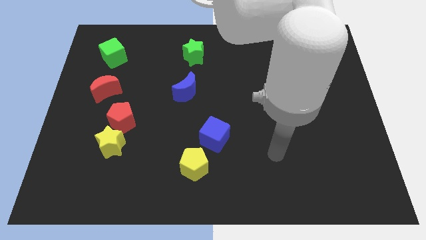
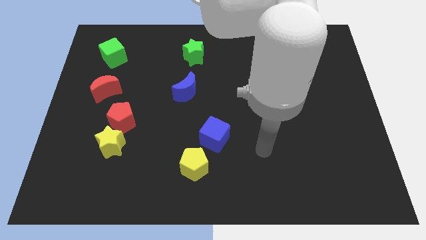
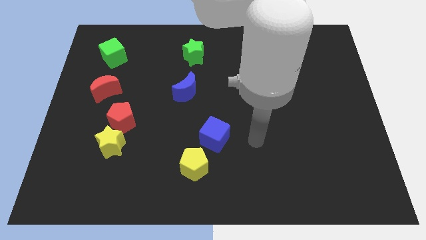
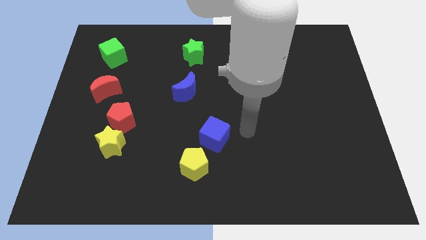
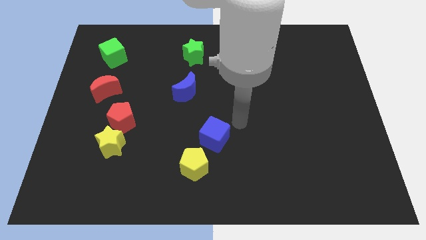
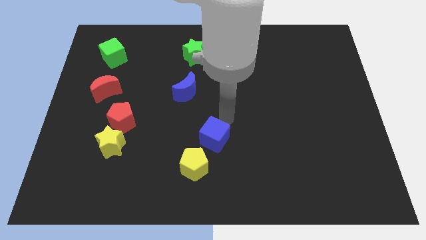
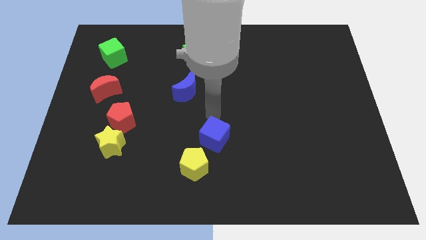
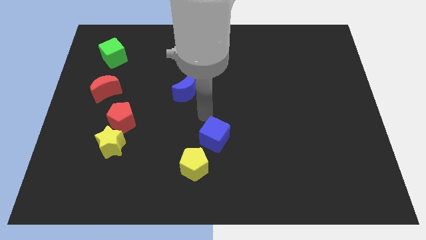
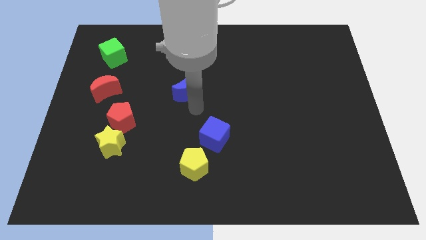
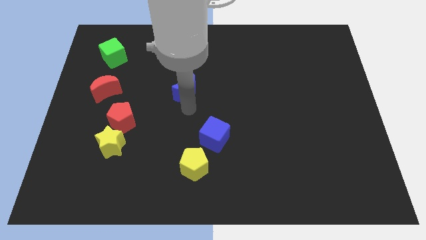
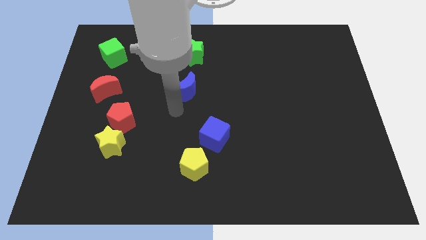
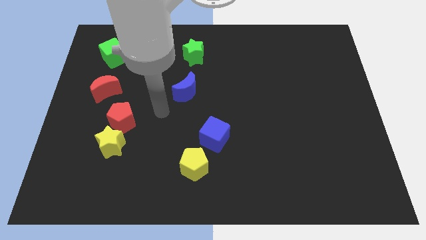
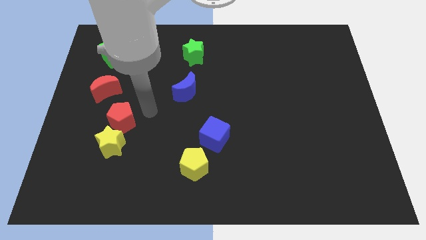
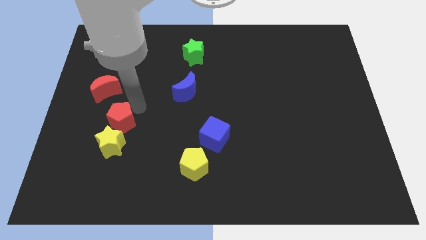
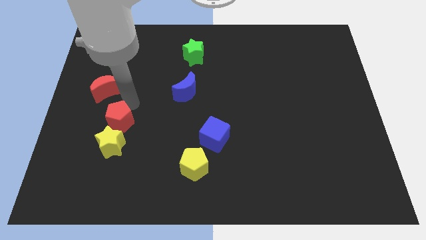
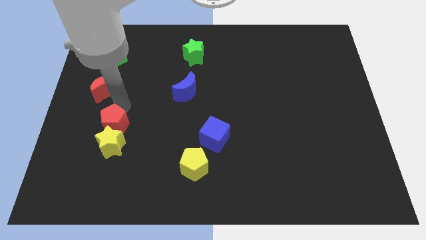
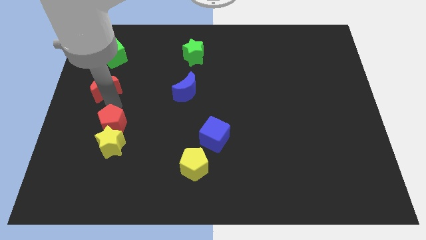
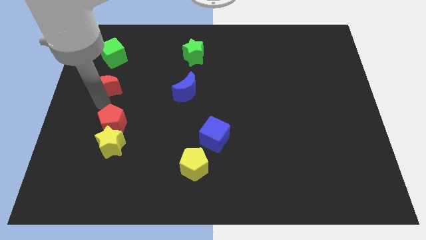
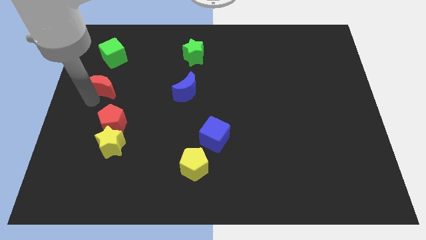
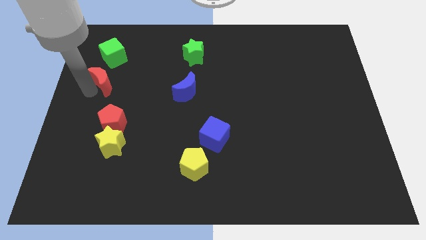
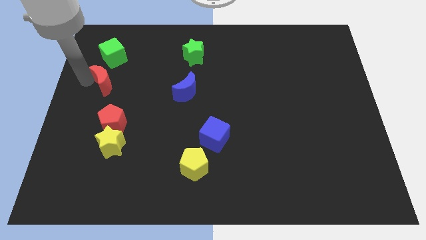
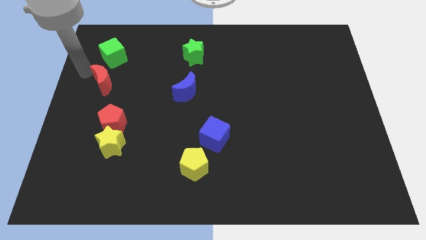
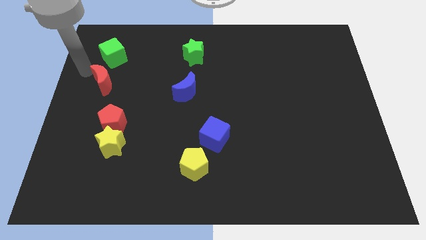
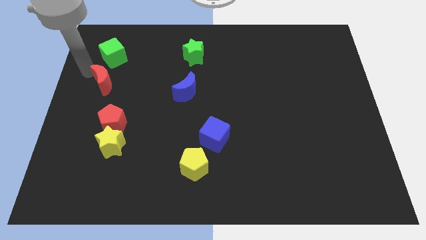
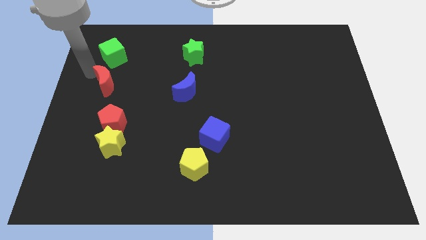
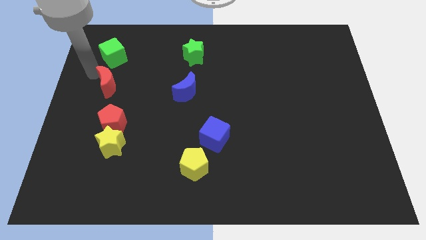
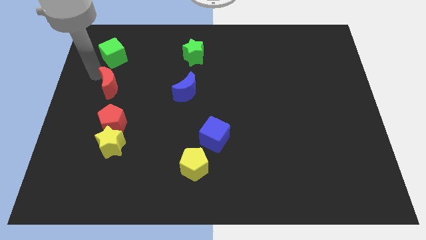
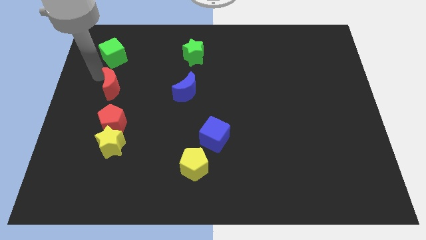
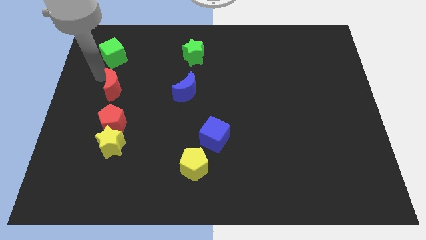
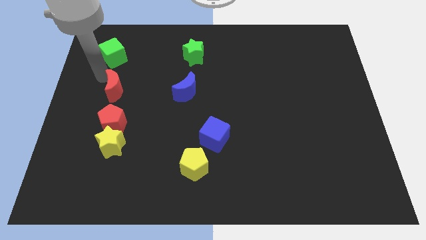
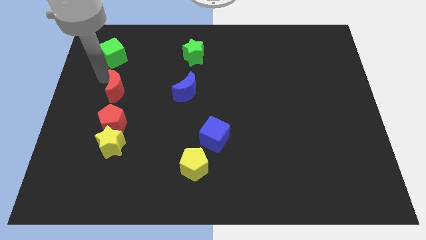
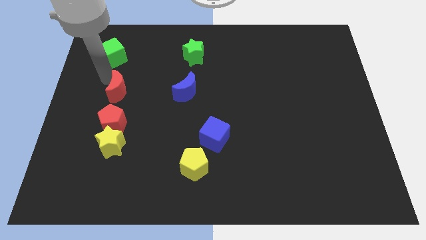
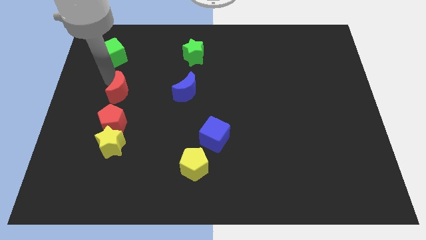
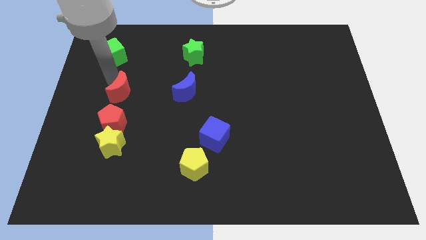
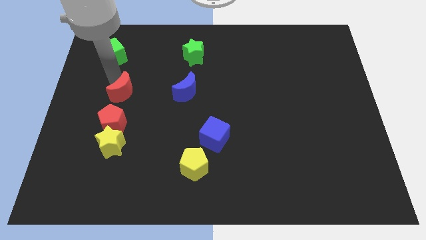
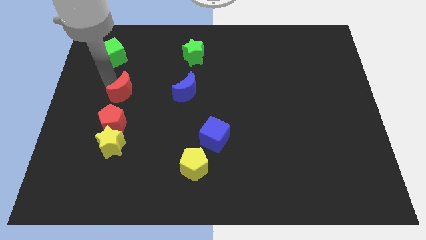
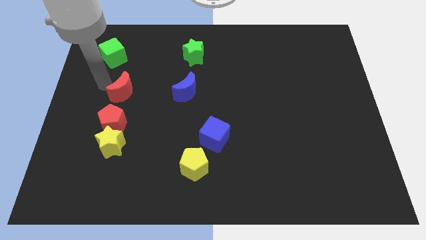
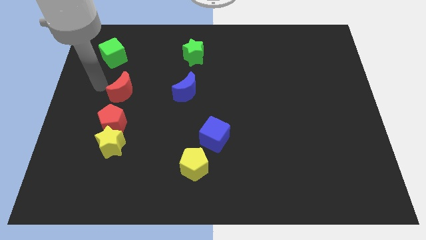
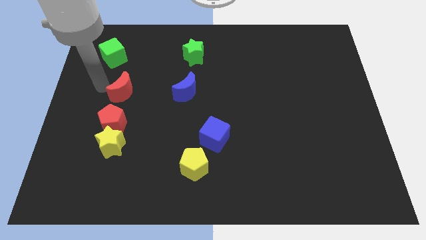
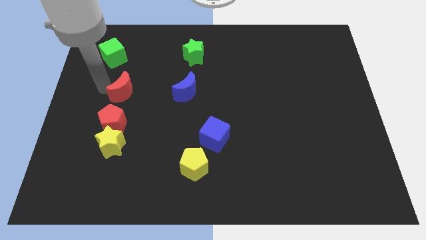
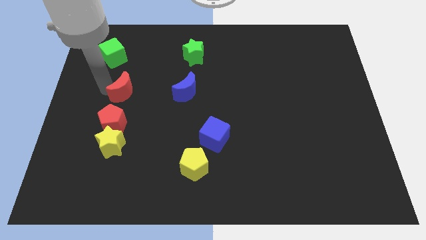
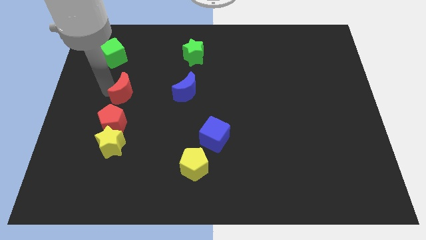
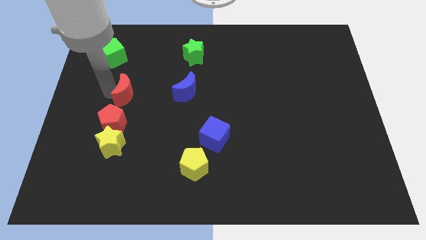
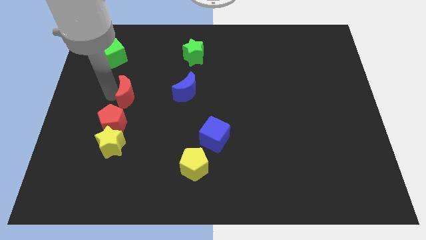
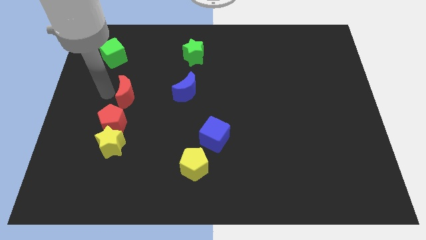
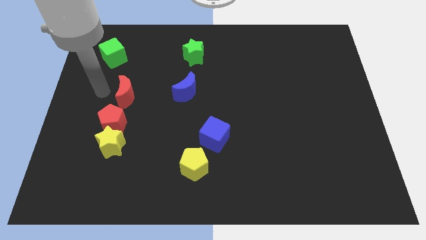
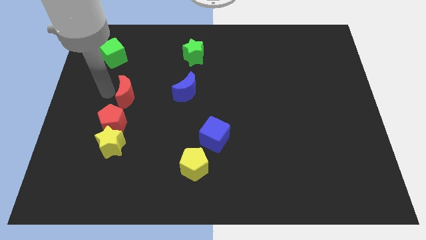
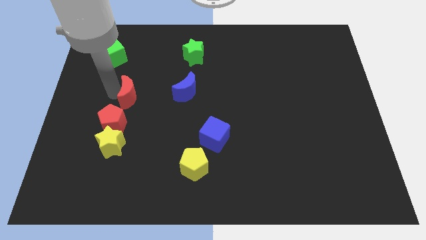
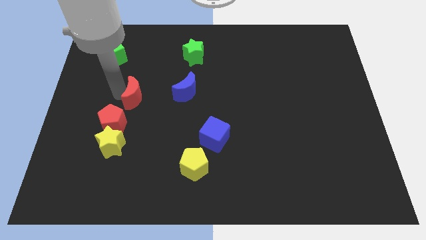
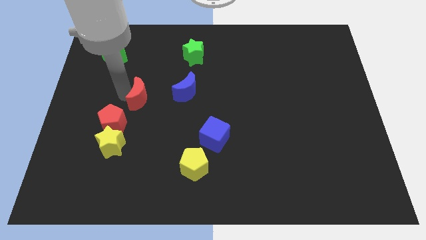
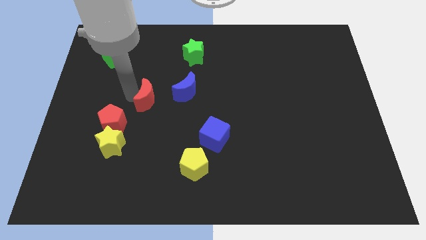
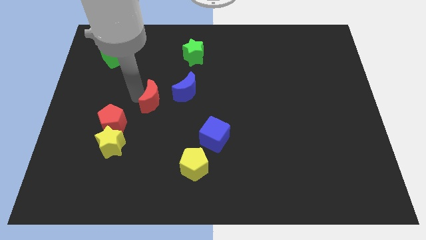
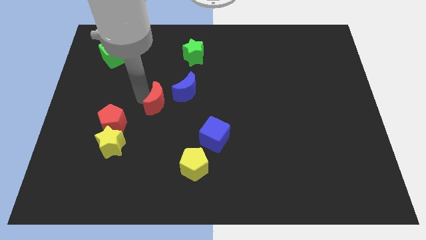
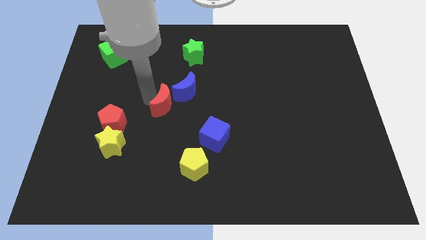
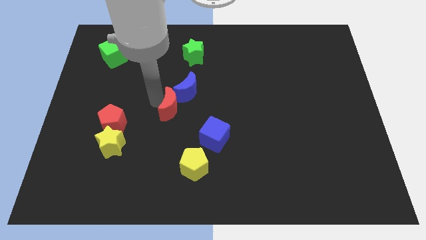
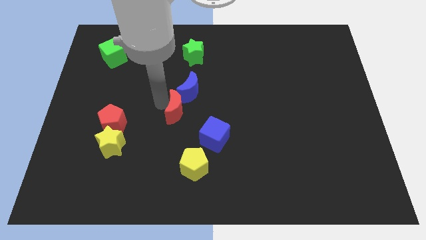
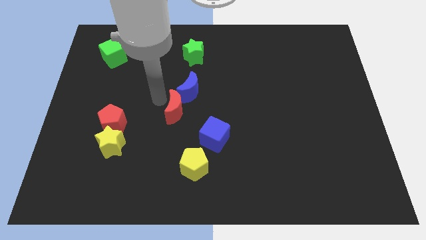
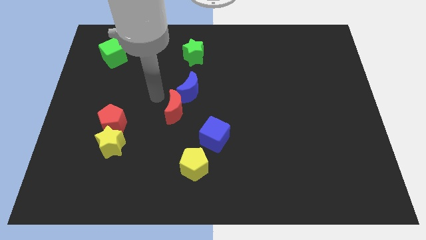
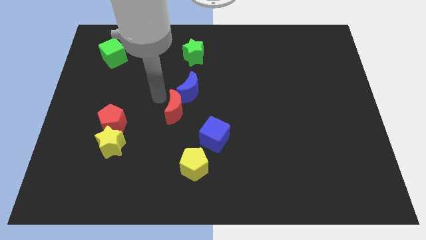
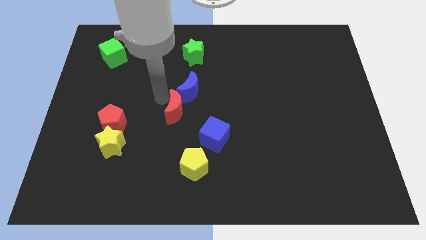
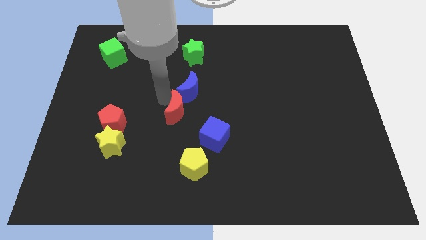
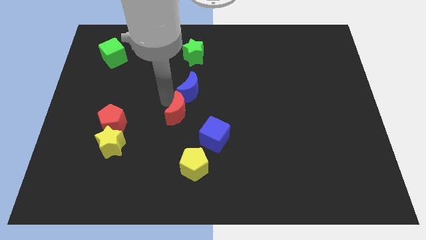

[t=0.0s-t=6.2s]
slide the red moon above the yellow pentagon
